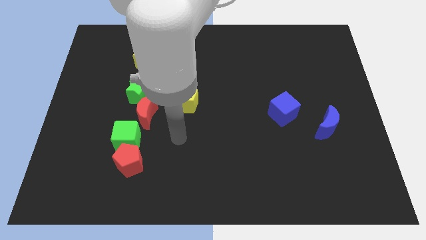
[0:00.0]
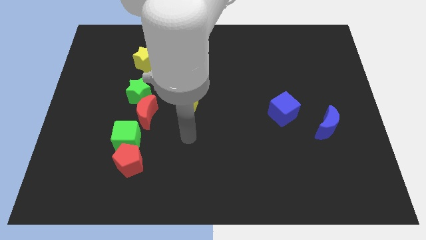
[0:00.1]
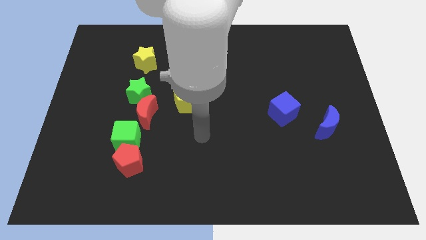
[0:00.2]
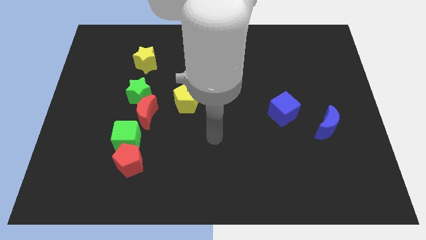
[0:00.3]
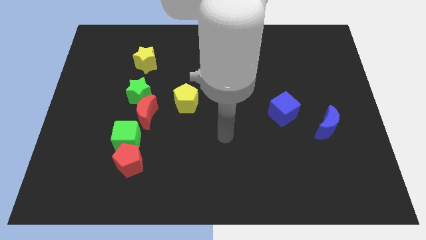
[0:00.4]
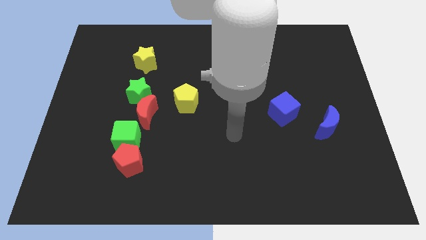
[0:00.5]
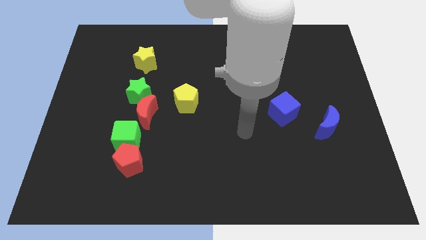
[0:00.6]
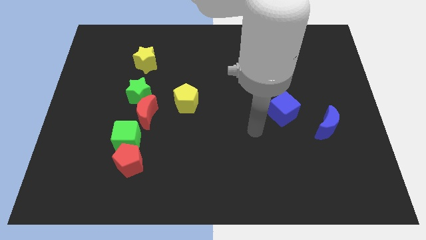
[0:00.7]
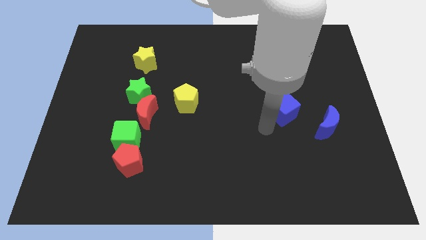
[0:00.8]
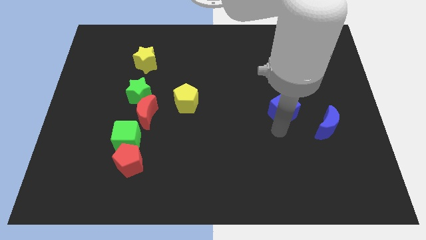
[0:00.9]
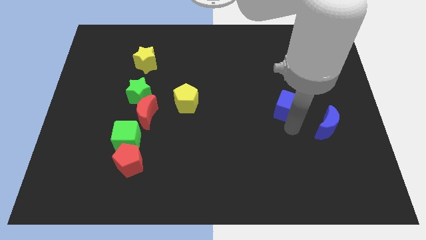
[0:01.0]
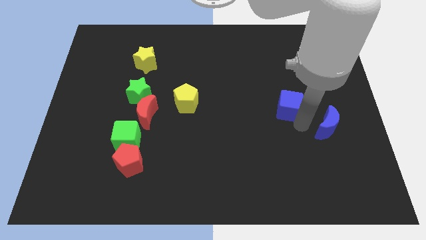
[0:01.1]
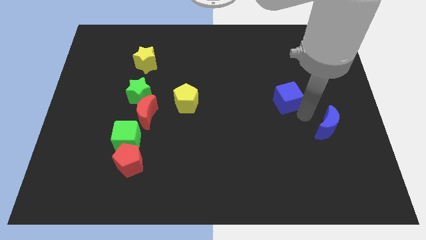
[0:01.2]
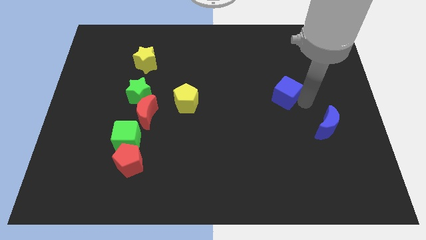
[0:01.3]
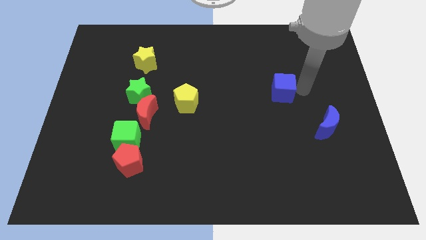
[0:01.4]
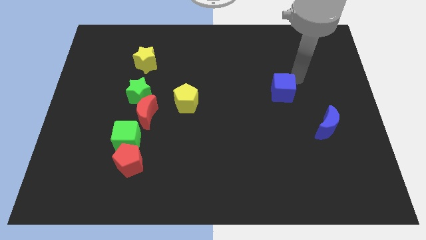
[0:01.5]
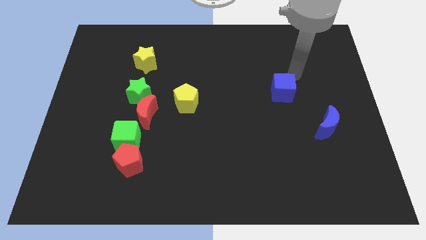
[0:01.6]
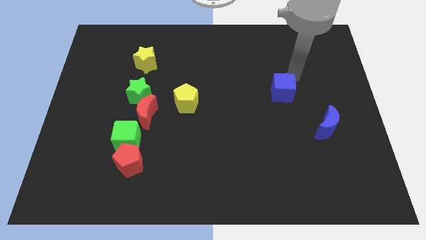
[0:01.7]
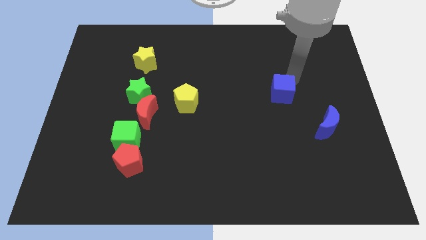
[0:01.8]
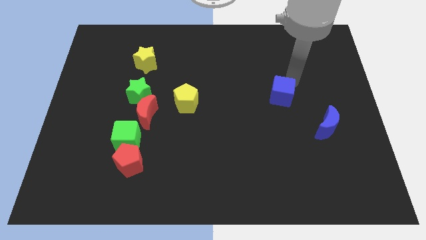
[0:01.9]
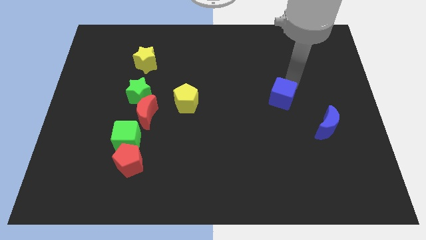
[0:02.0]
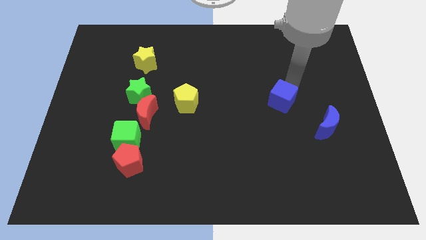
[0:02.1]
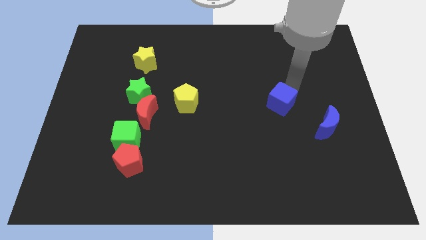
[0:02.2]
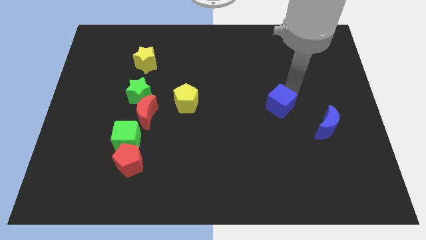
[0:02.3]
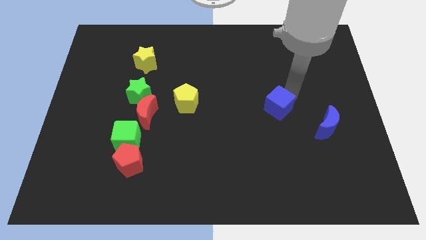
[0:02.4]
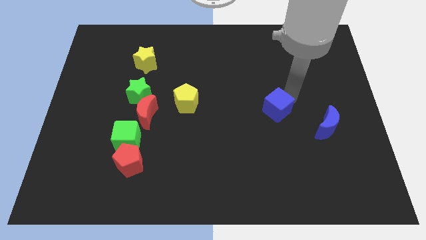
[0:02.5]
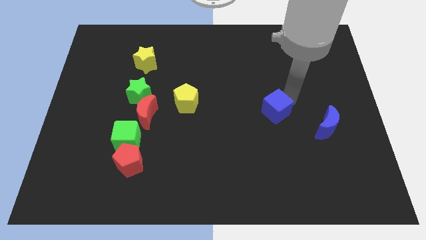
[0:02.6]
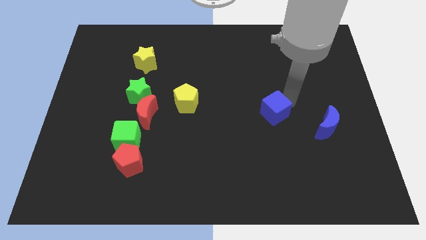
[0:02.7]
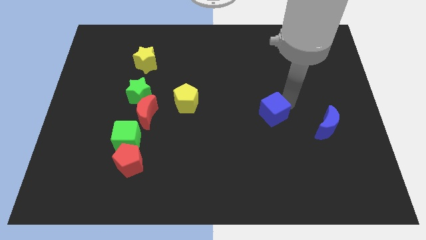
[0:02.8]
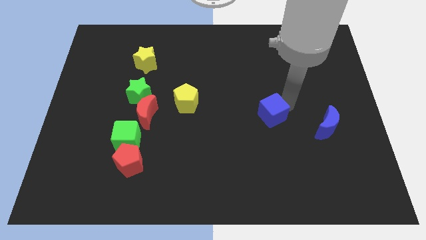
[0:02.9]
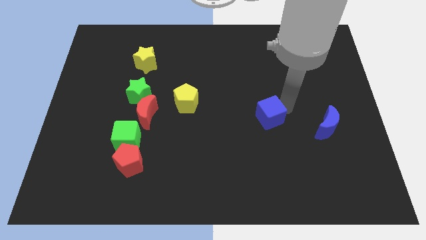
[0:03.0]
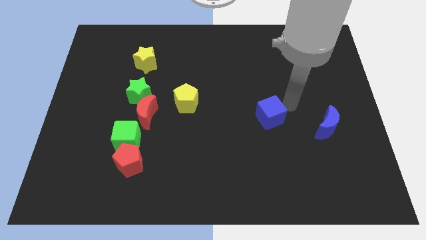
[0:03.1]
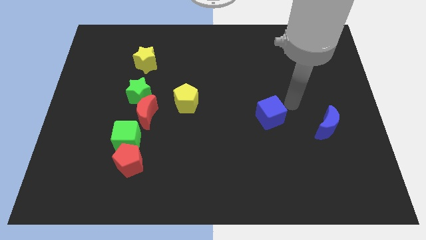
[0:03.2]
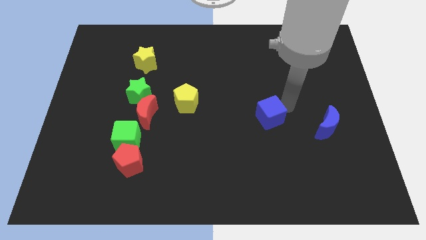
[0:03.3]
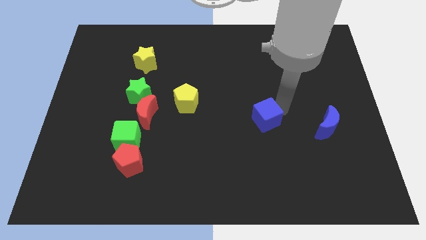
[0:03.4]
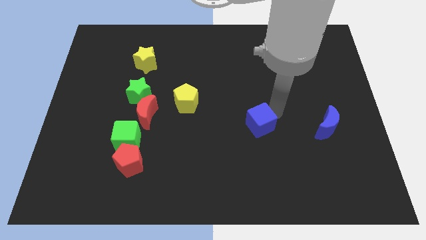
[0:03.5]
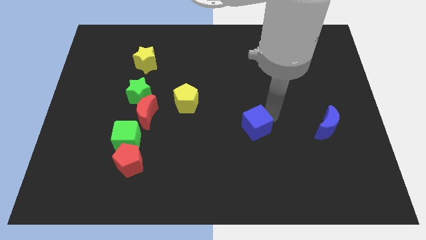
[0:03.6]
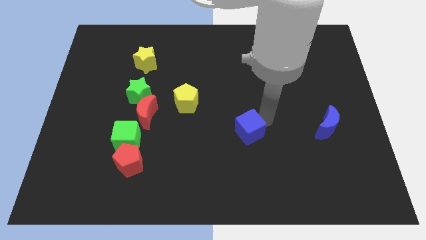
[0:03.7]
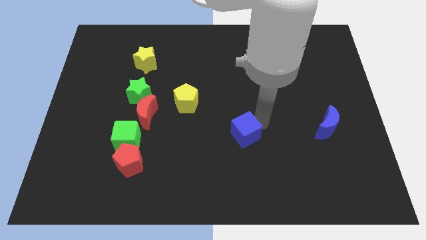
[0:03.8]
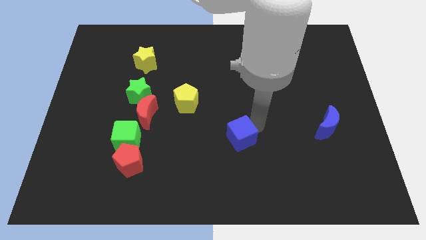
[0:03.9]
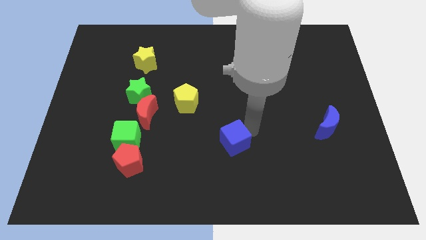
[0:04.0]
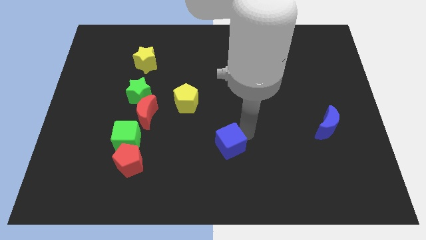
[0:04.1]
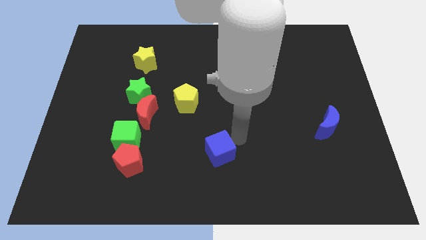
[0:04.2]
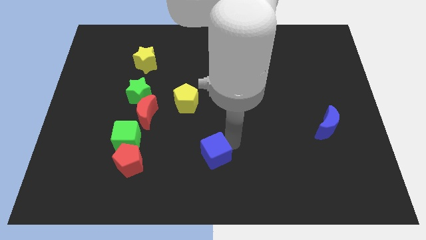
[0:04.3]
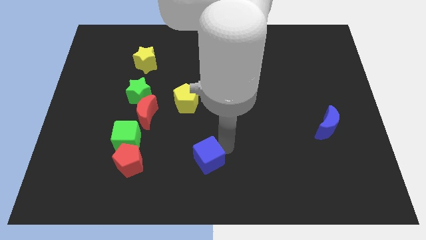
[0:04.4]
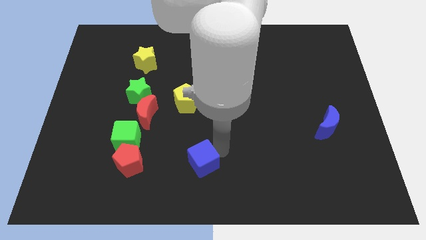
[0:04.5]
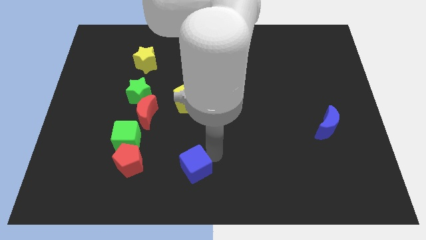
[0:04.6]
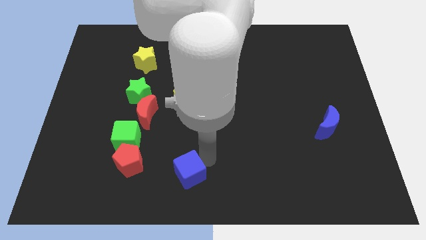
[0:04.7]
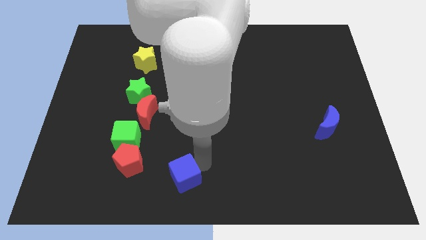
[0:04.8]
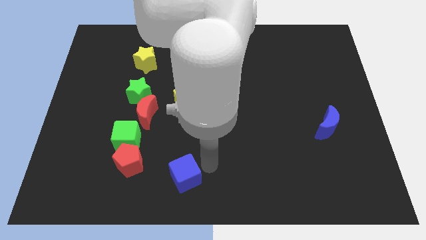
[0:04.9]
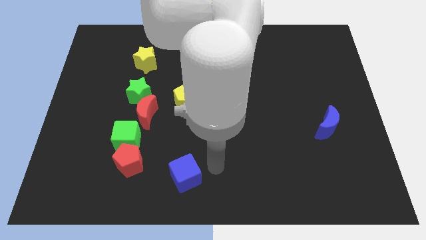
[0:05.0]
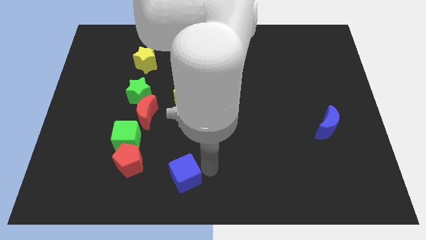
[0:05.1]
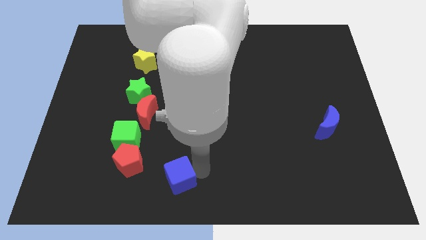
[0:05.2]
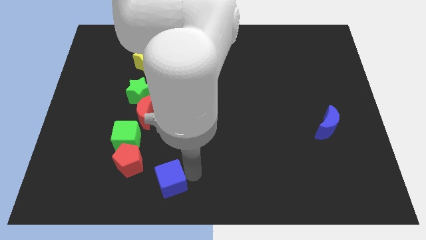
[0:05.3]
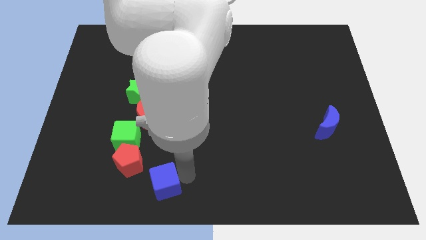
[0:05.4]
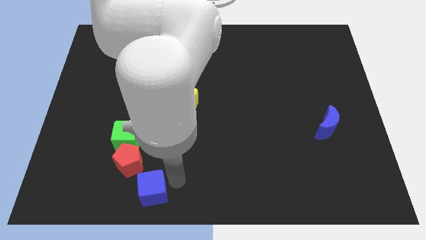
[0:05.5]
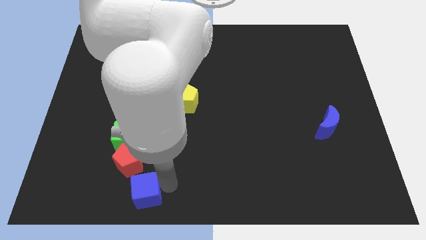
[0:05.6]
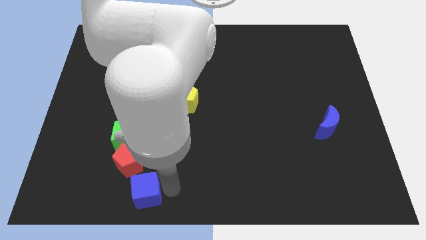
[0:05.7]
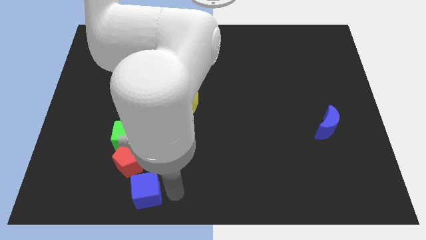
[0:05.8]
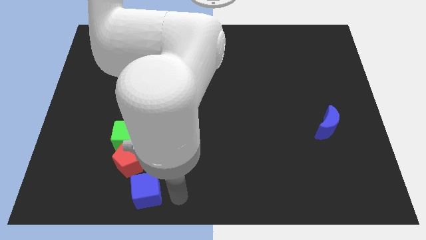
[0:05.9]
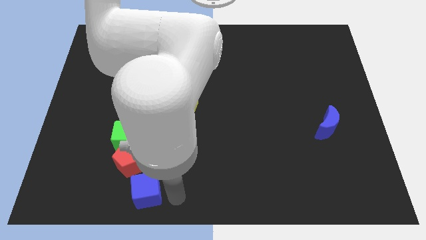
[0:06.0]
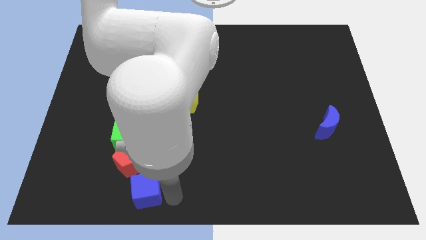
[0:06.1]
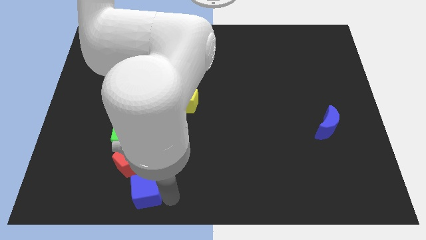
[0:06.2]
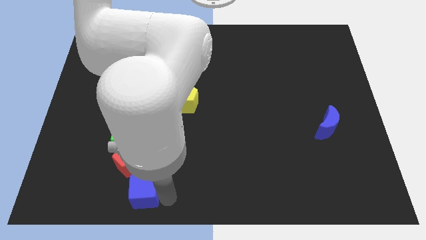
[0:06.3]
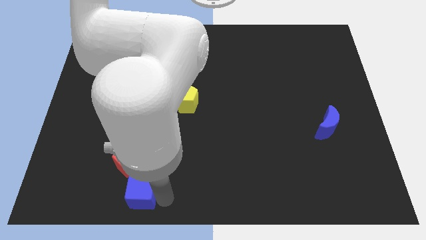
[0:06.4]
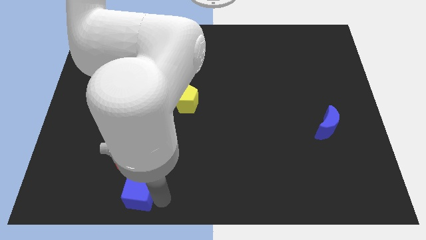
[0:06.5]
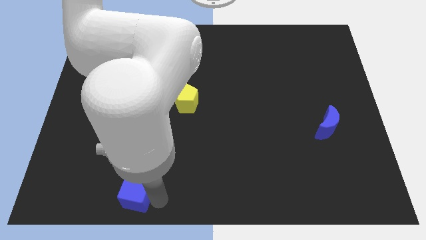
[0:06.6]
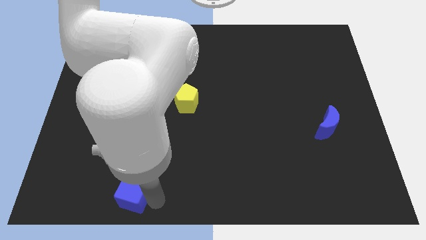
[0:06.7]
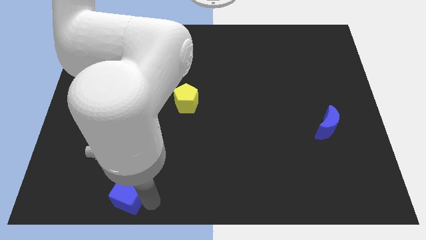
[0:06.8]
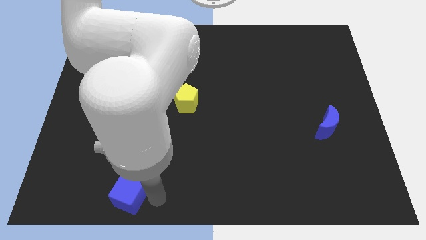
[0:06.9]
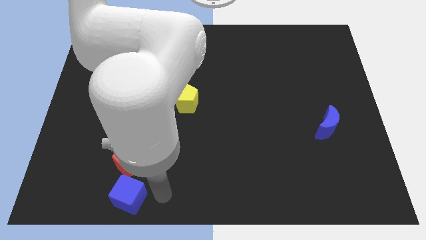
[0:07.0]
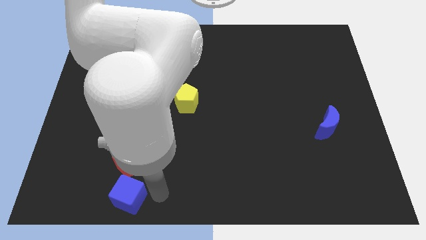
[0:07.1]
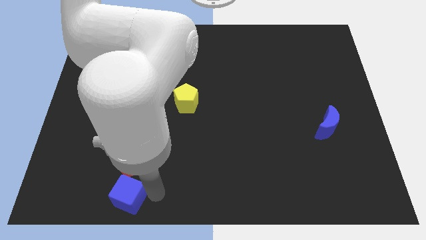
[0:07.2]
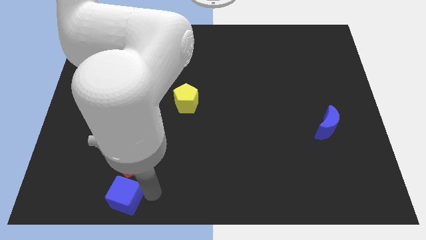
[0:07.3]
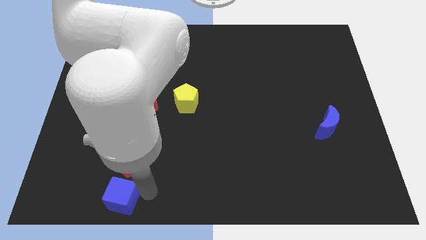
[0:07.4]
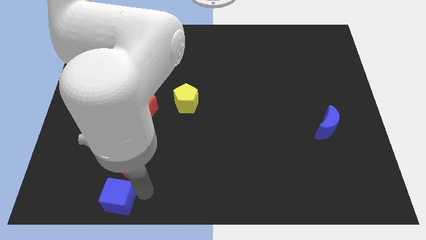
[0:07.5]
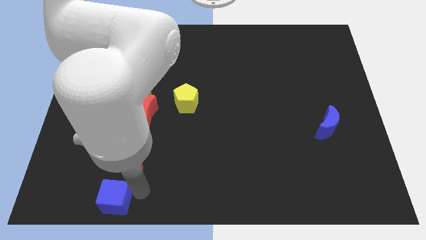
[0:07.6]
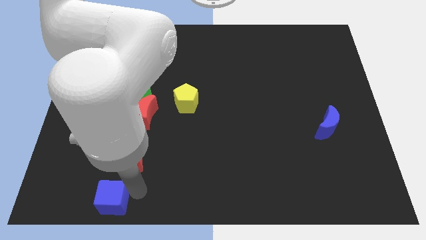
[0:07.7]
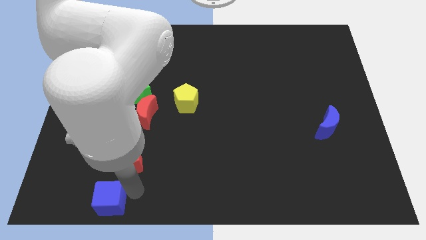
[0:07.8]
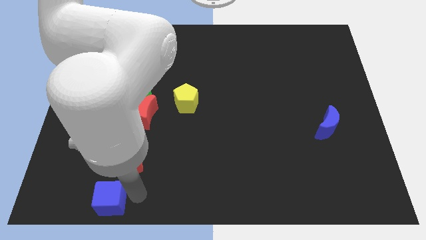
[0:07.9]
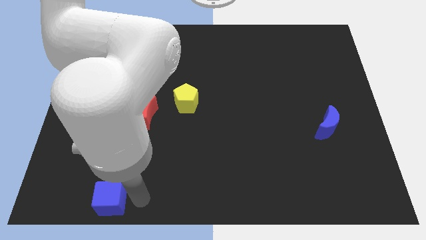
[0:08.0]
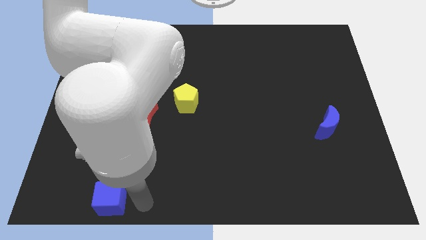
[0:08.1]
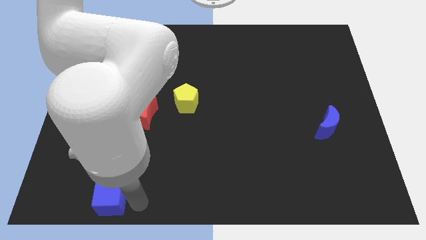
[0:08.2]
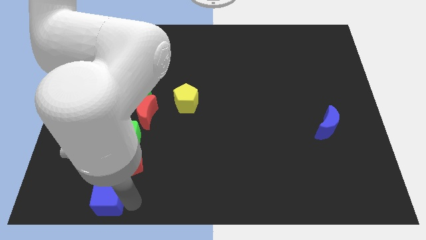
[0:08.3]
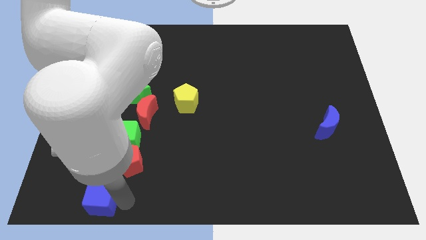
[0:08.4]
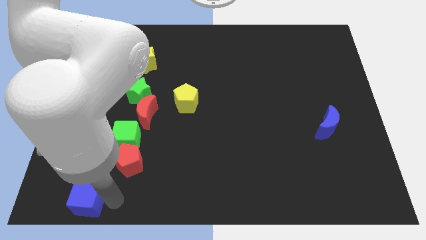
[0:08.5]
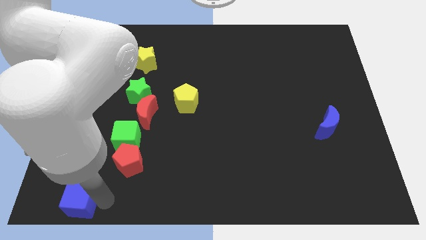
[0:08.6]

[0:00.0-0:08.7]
slide the blue cube to the lower left corner
